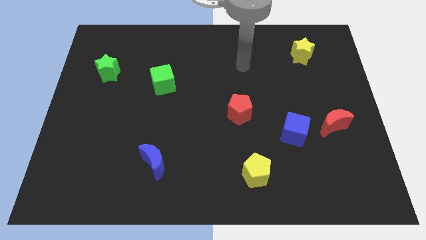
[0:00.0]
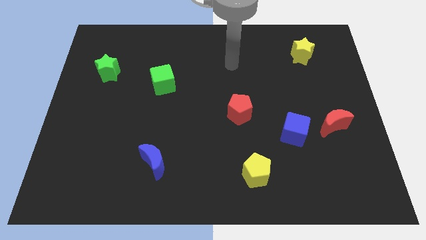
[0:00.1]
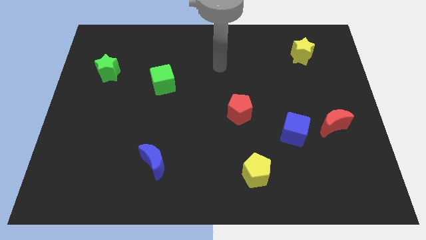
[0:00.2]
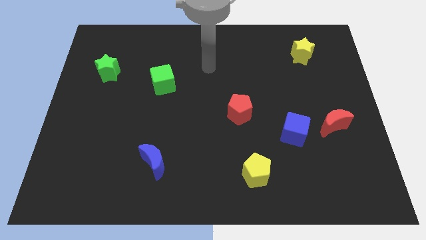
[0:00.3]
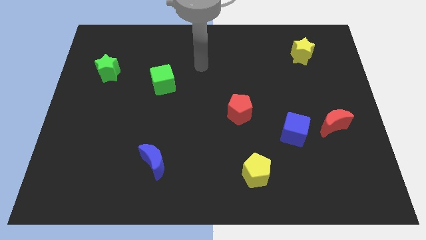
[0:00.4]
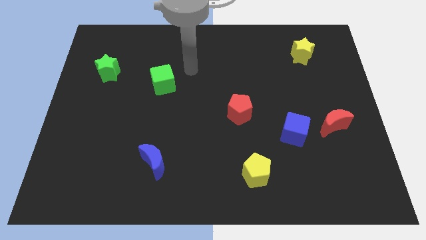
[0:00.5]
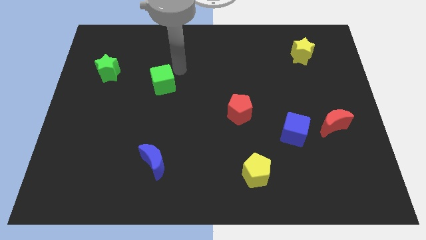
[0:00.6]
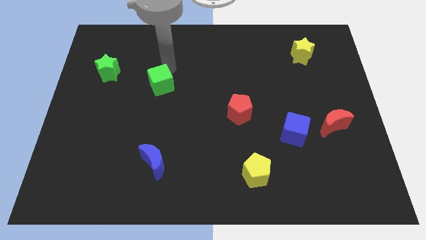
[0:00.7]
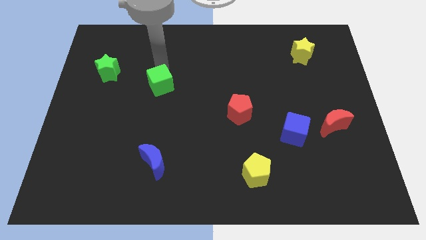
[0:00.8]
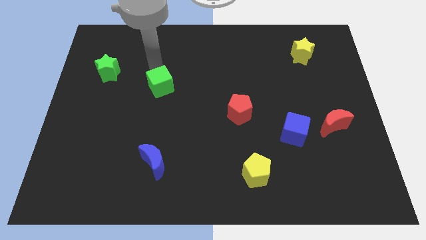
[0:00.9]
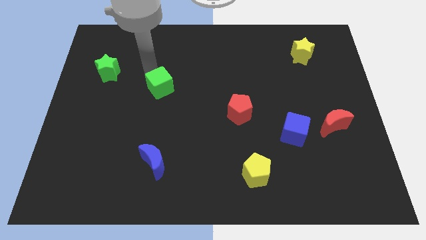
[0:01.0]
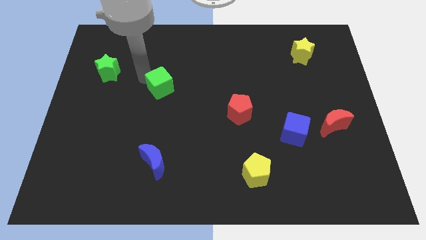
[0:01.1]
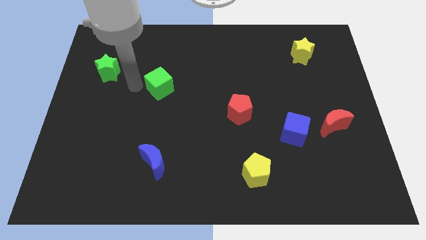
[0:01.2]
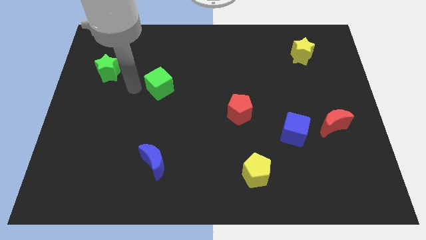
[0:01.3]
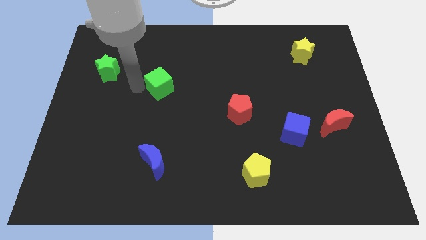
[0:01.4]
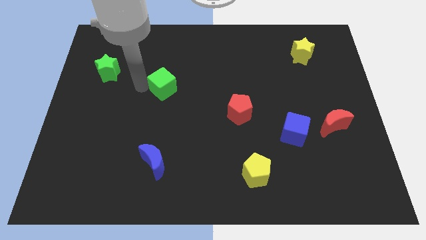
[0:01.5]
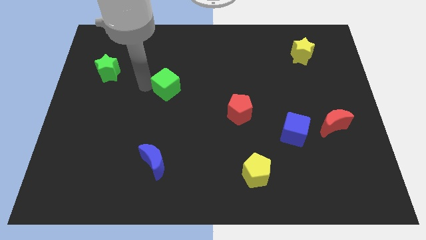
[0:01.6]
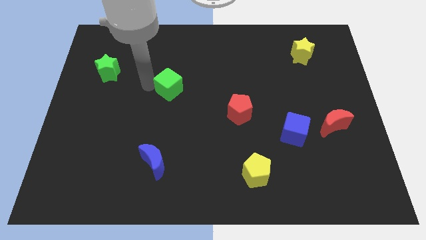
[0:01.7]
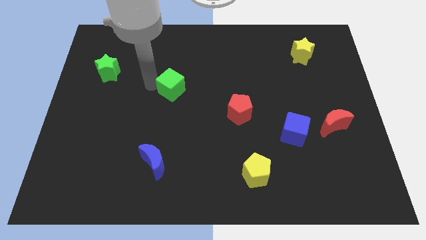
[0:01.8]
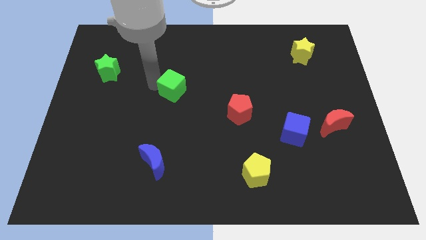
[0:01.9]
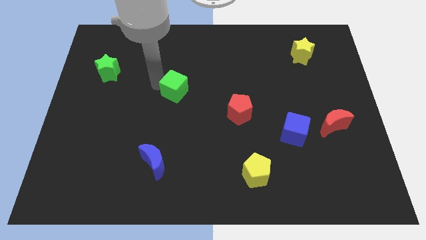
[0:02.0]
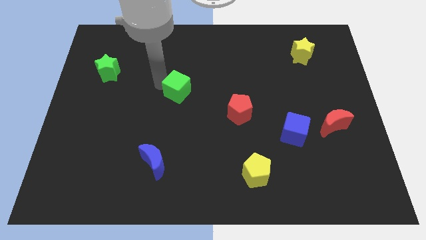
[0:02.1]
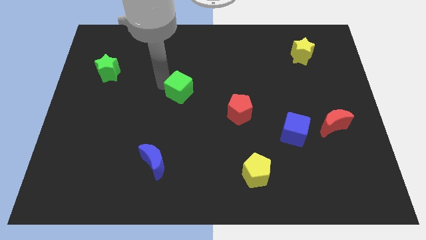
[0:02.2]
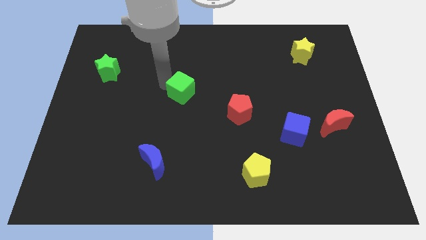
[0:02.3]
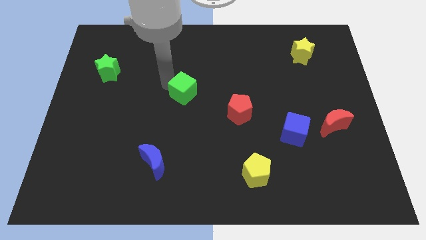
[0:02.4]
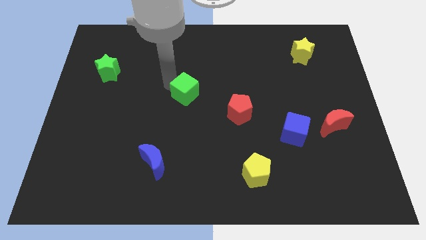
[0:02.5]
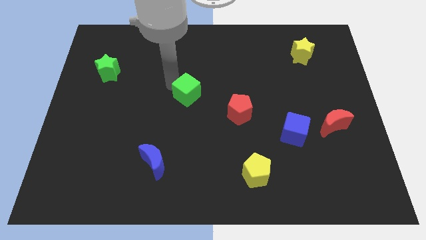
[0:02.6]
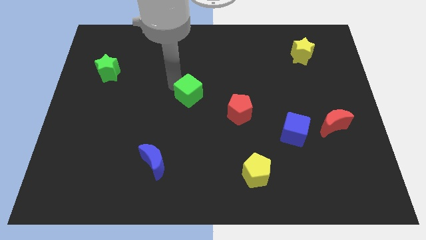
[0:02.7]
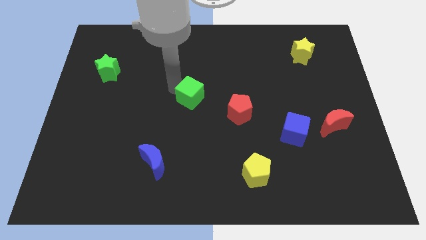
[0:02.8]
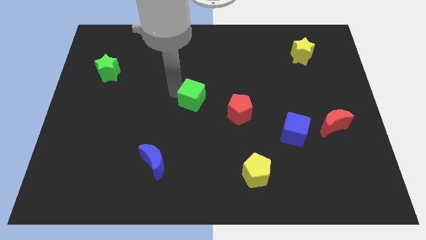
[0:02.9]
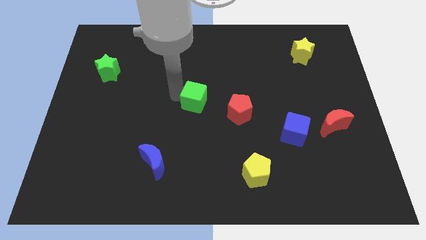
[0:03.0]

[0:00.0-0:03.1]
slide the green cube to the right a little bit

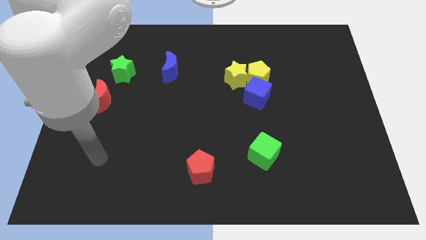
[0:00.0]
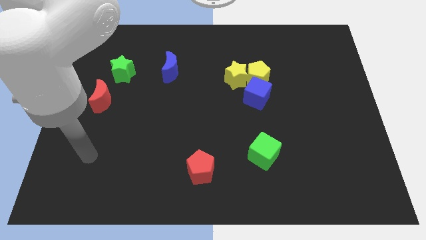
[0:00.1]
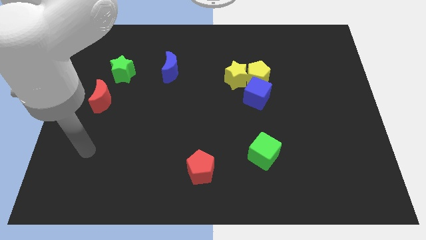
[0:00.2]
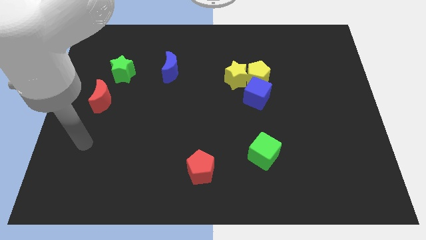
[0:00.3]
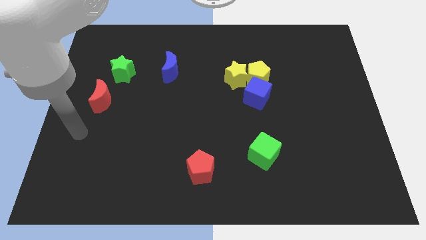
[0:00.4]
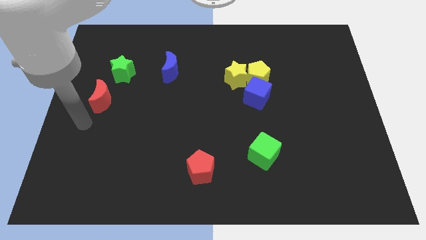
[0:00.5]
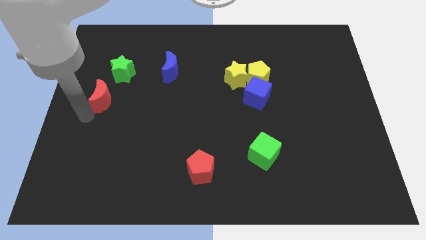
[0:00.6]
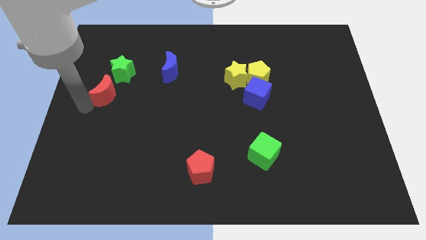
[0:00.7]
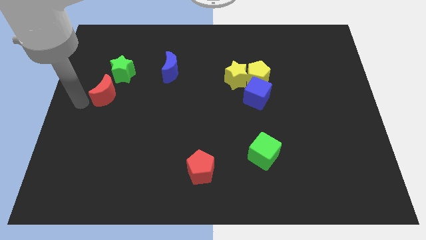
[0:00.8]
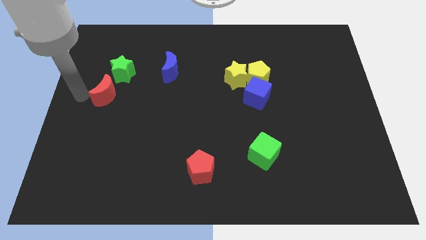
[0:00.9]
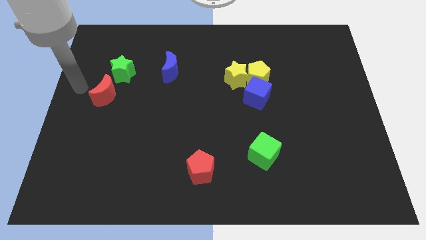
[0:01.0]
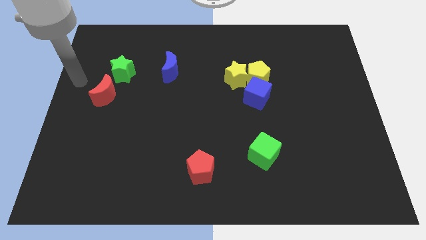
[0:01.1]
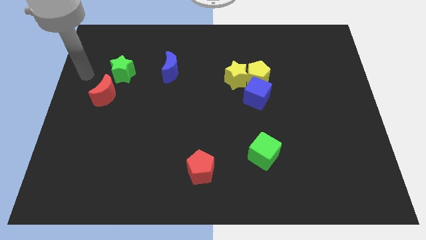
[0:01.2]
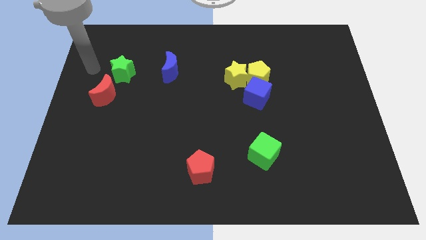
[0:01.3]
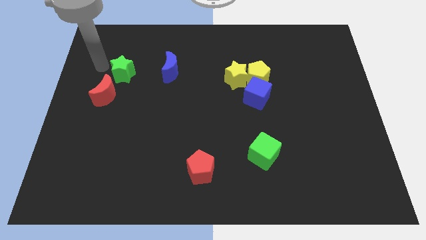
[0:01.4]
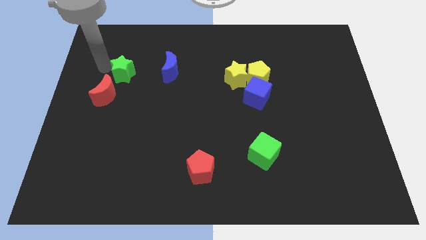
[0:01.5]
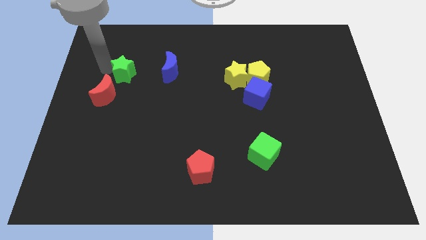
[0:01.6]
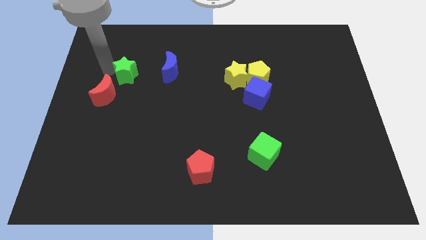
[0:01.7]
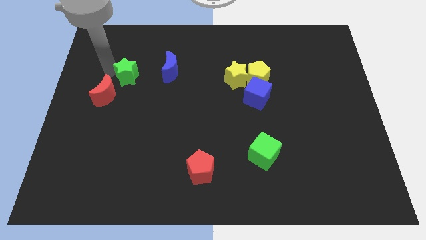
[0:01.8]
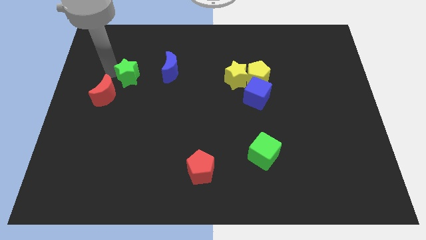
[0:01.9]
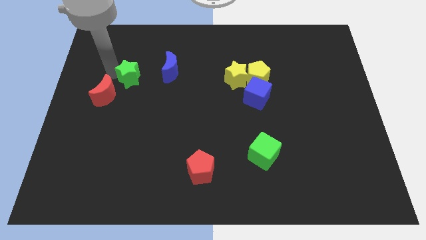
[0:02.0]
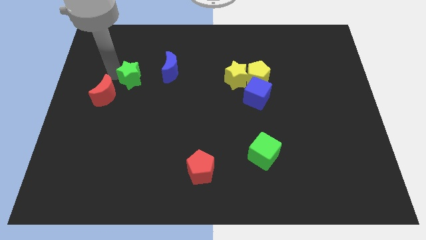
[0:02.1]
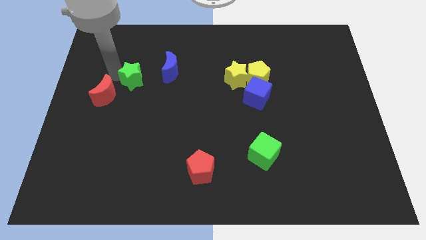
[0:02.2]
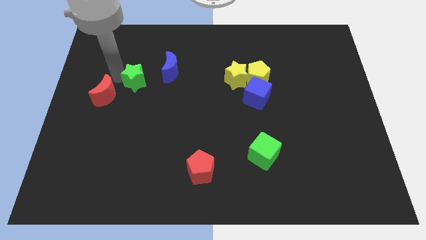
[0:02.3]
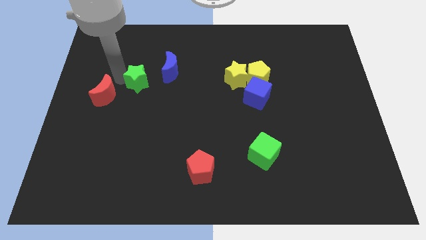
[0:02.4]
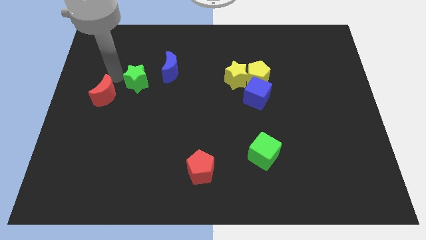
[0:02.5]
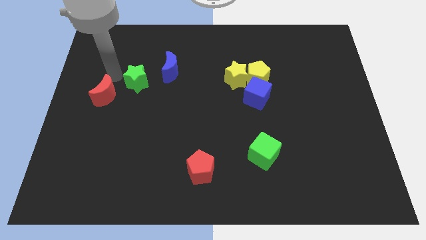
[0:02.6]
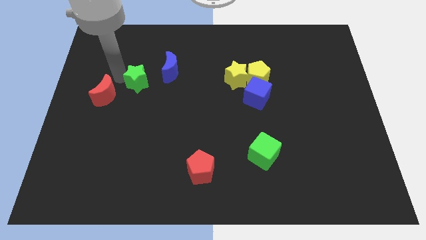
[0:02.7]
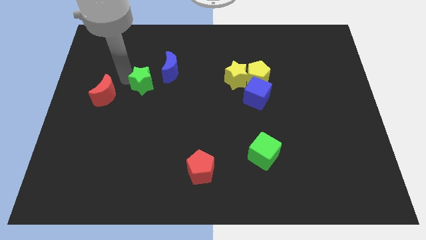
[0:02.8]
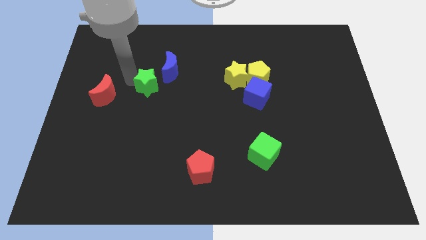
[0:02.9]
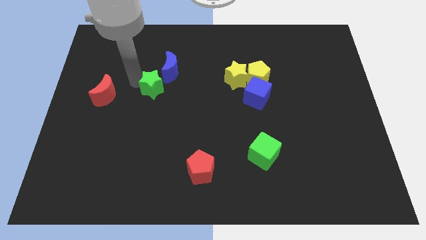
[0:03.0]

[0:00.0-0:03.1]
move the green star a bit right

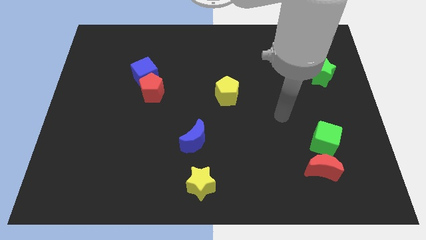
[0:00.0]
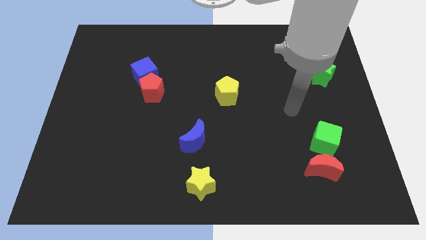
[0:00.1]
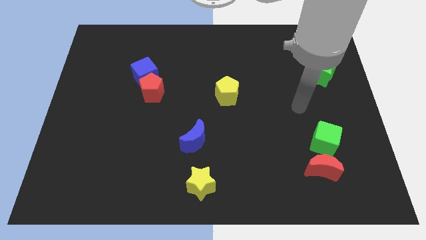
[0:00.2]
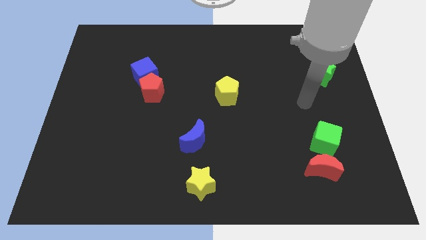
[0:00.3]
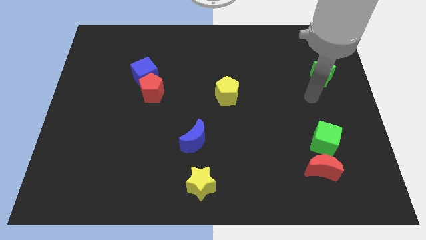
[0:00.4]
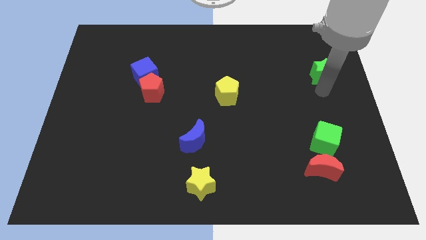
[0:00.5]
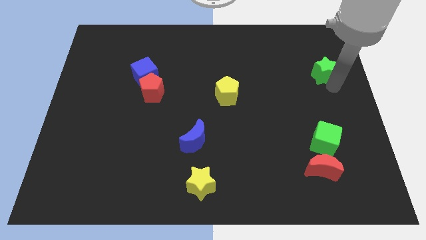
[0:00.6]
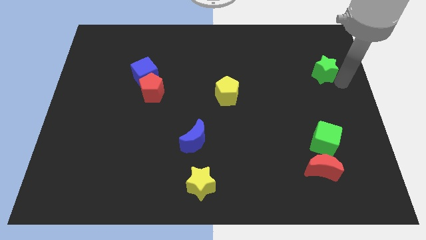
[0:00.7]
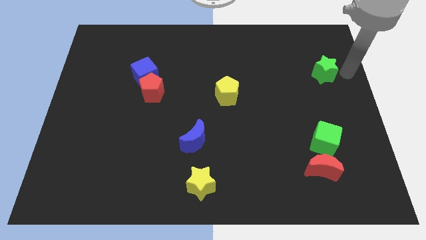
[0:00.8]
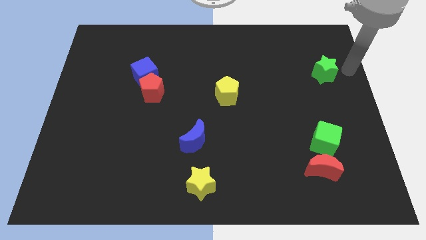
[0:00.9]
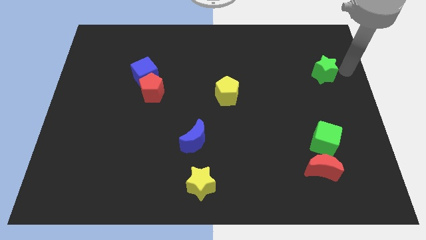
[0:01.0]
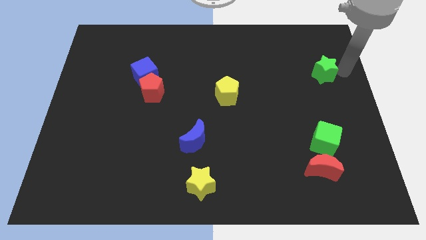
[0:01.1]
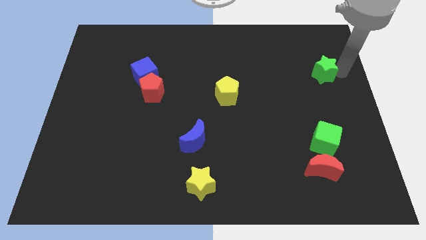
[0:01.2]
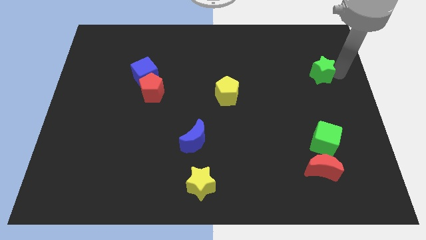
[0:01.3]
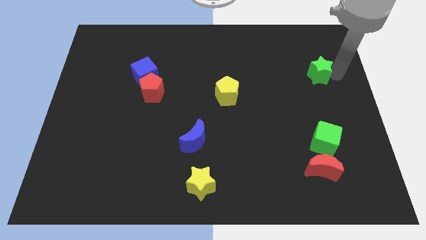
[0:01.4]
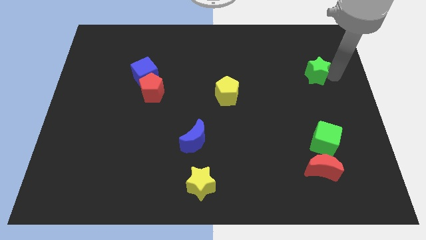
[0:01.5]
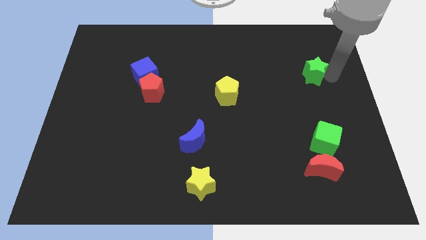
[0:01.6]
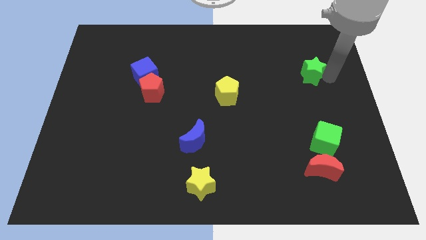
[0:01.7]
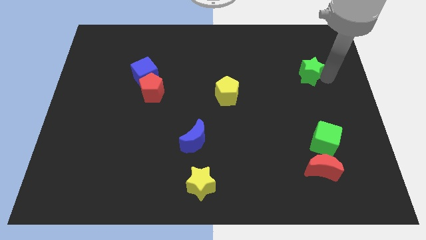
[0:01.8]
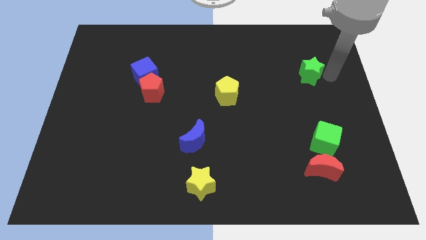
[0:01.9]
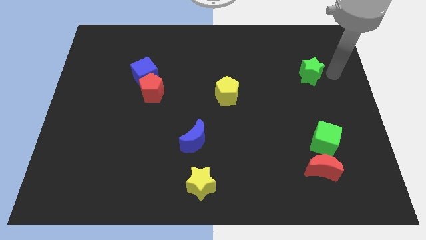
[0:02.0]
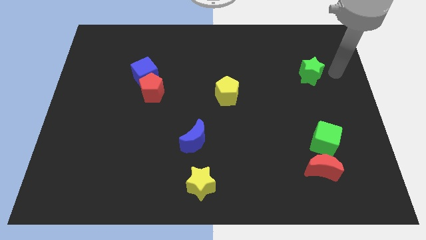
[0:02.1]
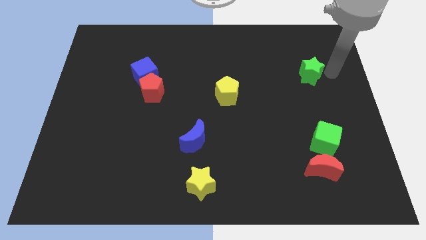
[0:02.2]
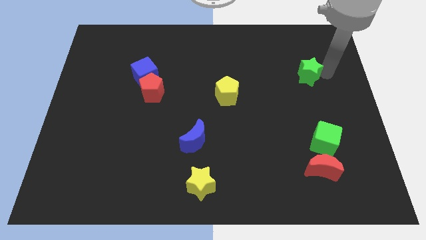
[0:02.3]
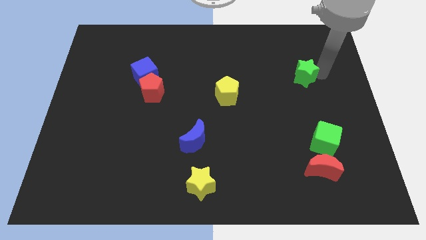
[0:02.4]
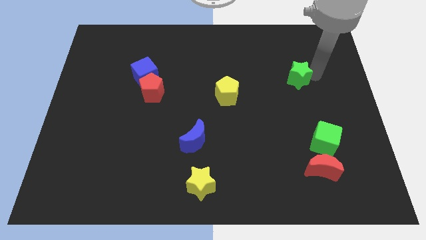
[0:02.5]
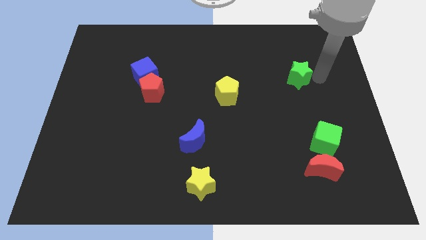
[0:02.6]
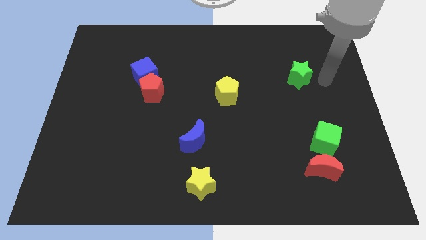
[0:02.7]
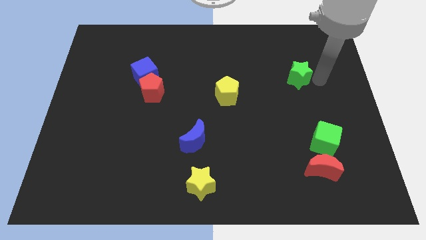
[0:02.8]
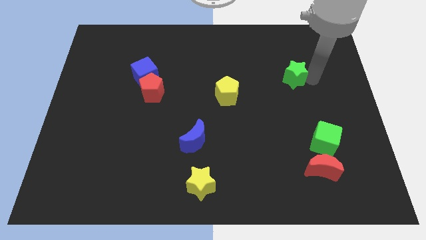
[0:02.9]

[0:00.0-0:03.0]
slightly push the green star left
